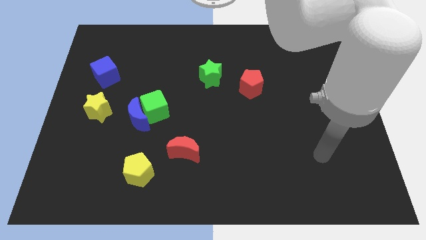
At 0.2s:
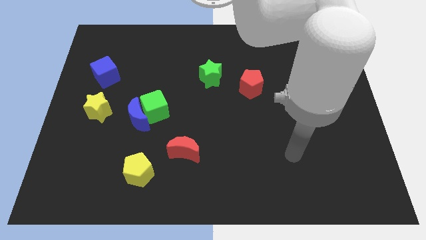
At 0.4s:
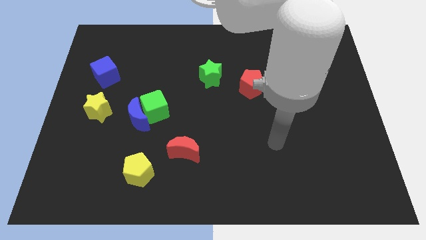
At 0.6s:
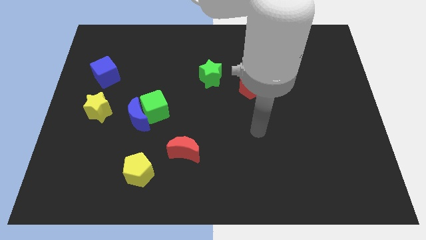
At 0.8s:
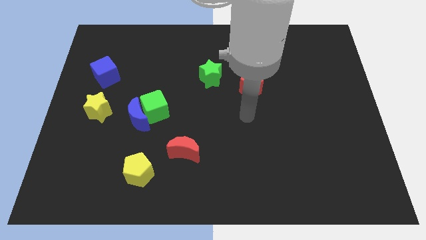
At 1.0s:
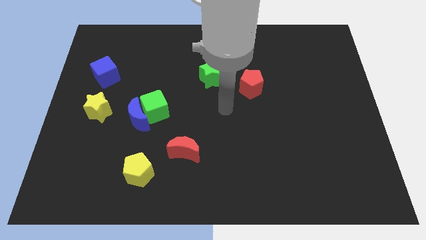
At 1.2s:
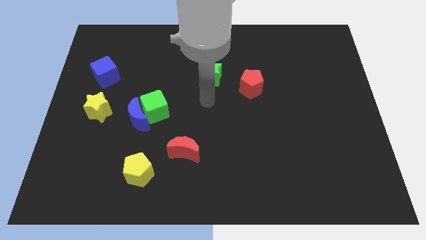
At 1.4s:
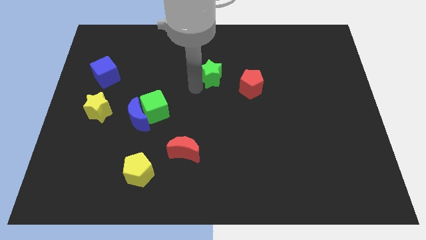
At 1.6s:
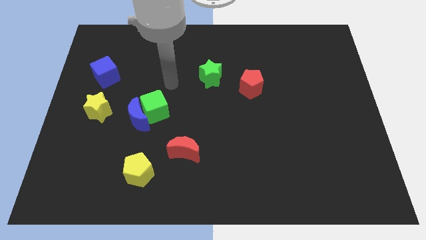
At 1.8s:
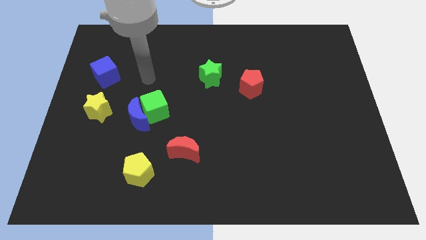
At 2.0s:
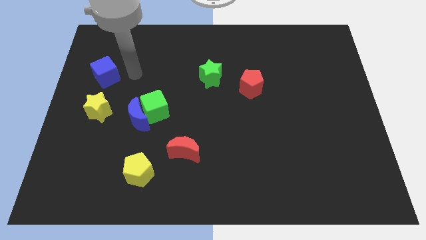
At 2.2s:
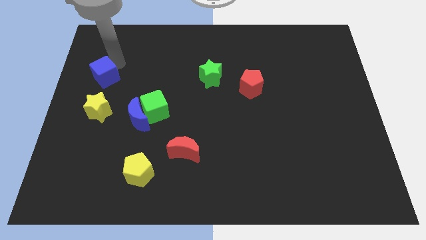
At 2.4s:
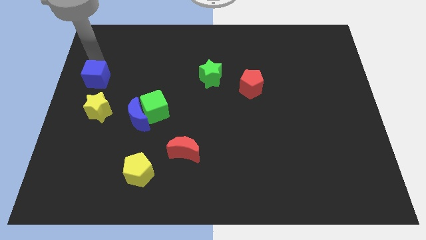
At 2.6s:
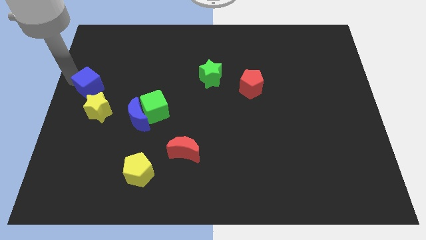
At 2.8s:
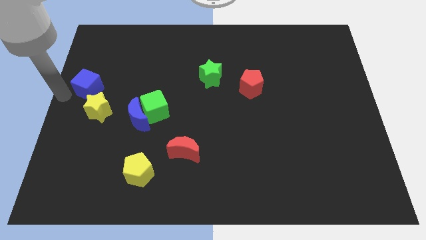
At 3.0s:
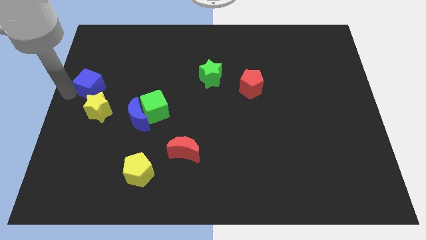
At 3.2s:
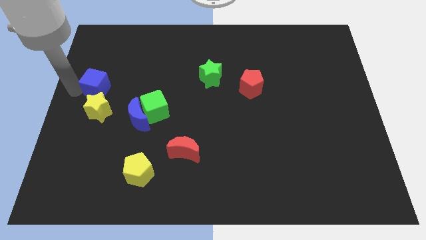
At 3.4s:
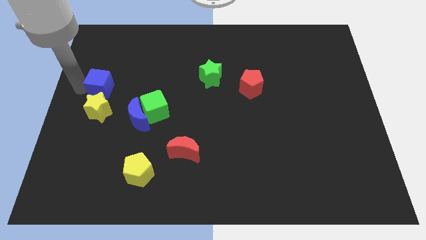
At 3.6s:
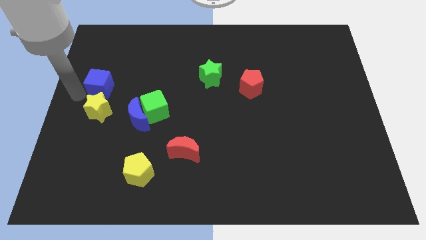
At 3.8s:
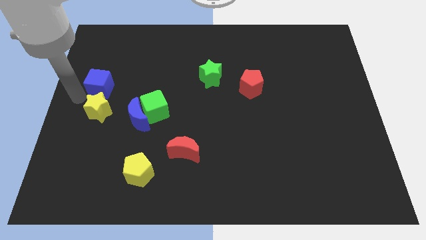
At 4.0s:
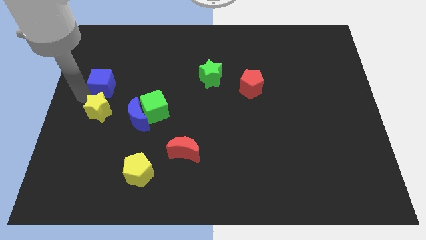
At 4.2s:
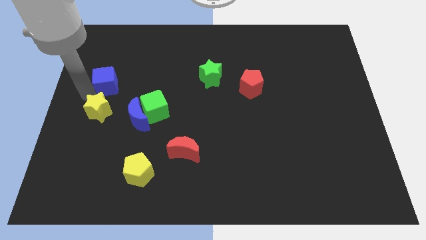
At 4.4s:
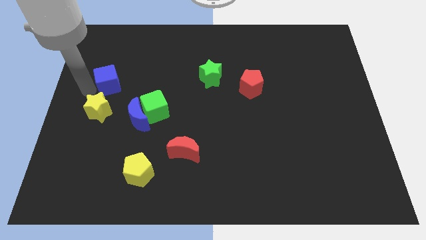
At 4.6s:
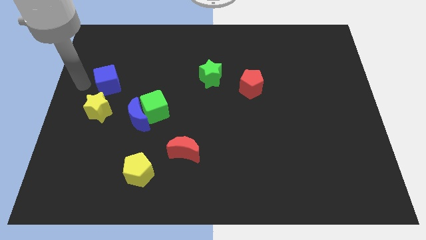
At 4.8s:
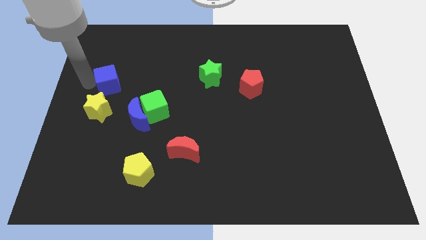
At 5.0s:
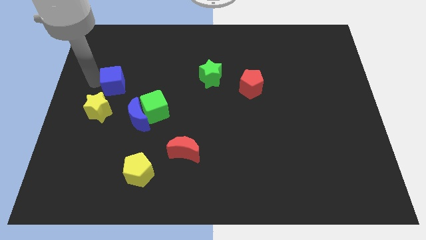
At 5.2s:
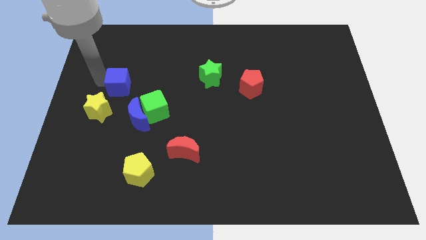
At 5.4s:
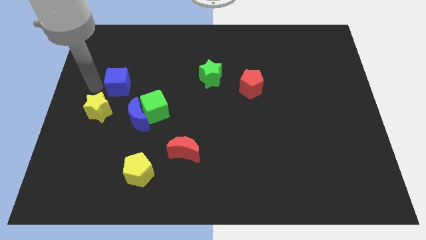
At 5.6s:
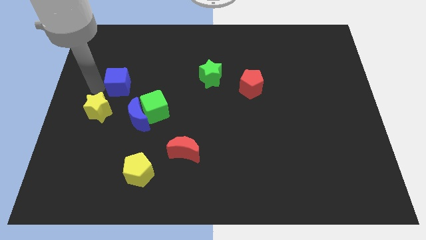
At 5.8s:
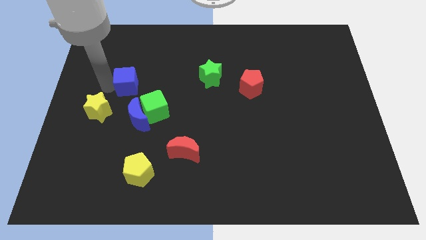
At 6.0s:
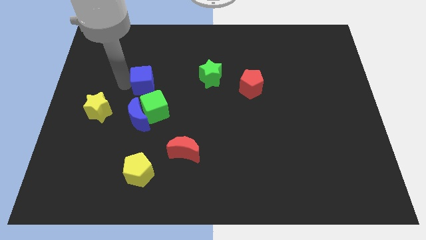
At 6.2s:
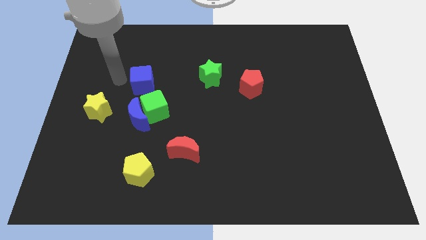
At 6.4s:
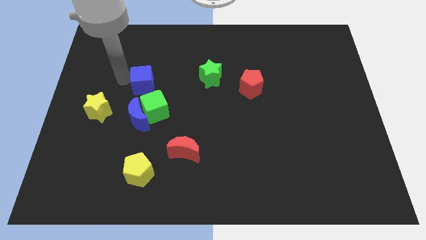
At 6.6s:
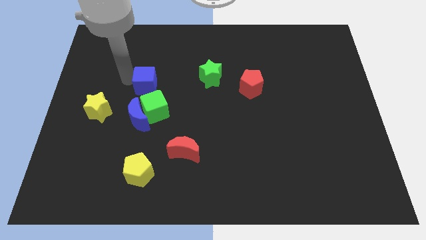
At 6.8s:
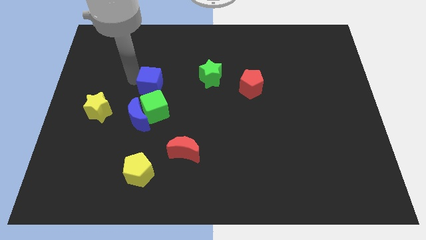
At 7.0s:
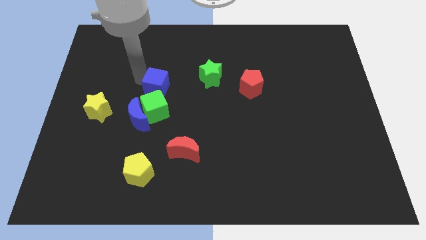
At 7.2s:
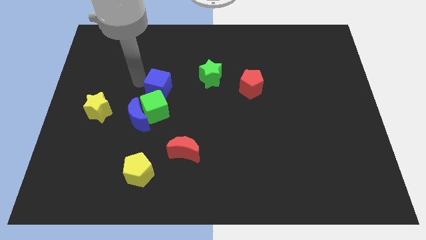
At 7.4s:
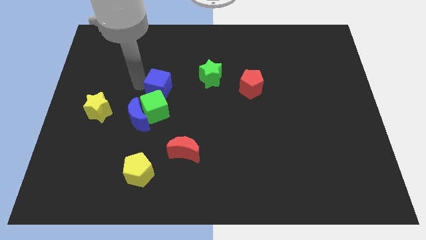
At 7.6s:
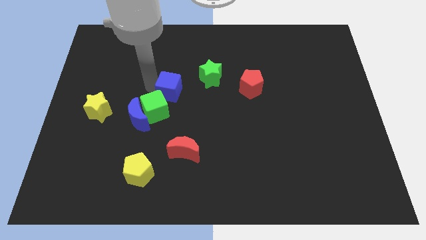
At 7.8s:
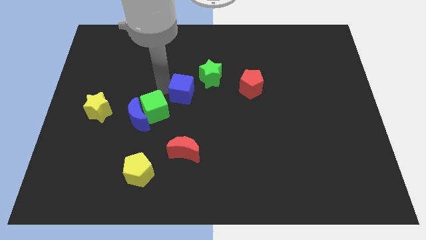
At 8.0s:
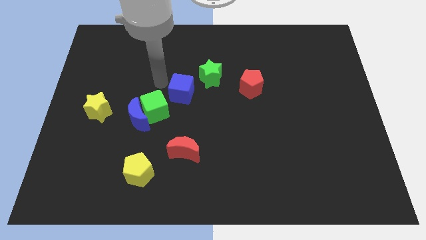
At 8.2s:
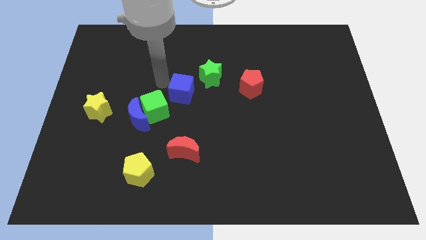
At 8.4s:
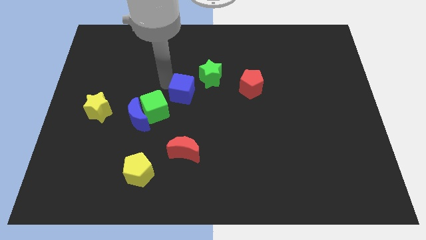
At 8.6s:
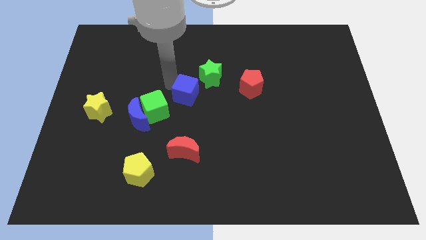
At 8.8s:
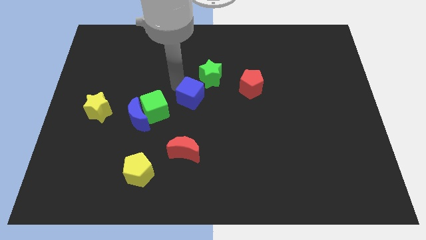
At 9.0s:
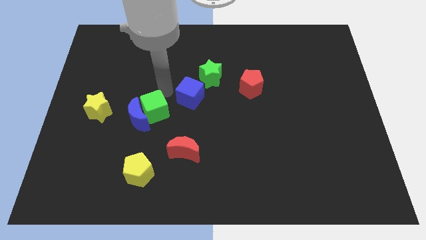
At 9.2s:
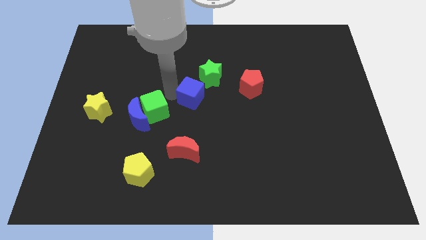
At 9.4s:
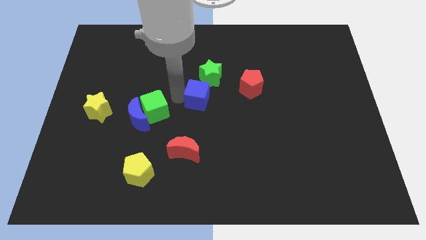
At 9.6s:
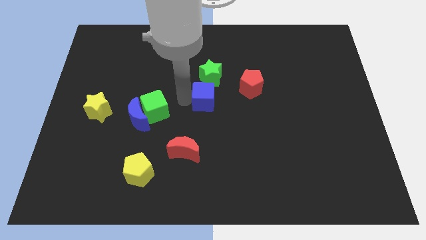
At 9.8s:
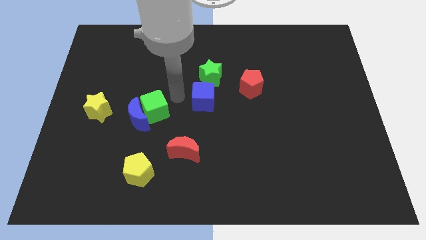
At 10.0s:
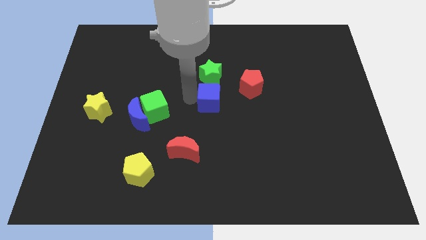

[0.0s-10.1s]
slide the blue cube to the bottom left side of the red pentagon

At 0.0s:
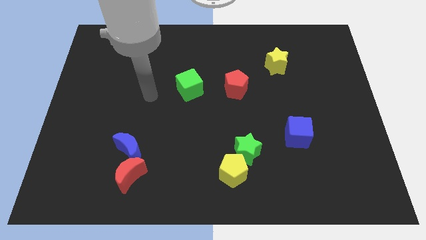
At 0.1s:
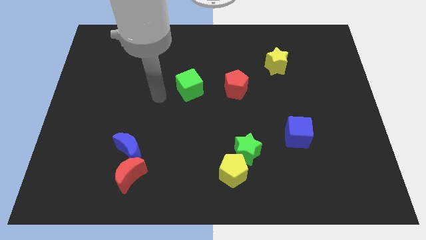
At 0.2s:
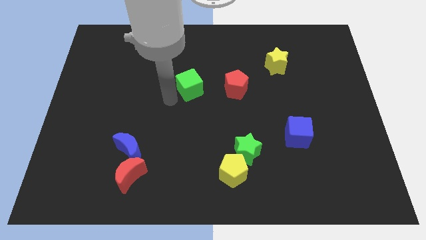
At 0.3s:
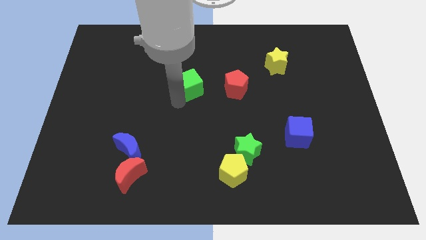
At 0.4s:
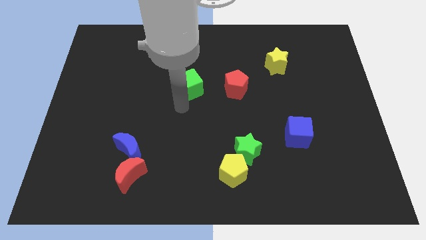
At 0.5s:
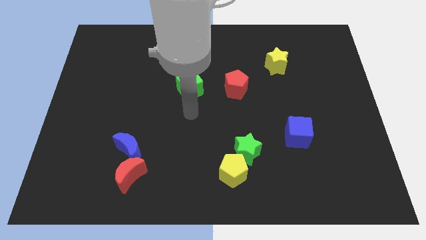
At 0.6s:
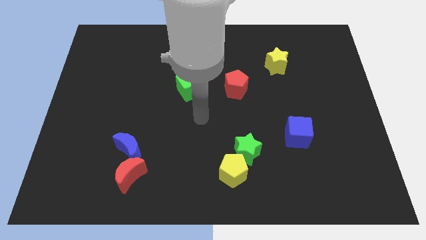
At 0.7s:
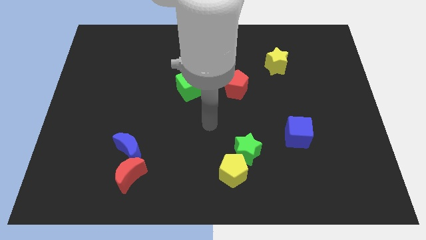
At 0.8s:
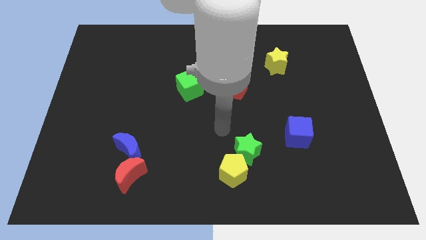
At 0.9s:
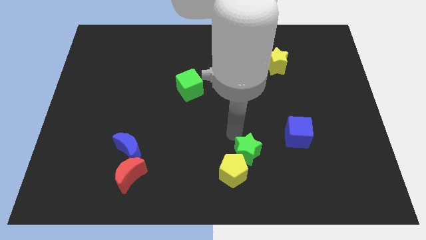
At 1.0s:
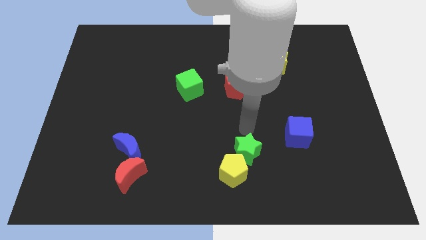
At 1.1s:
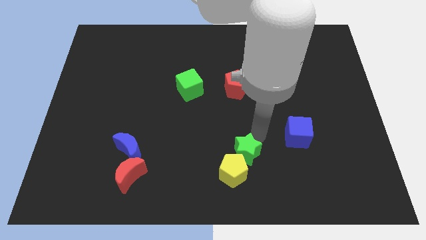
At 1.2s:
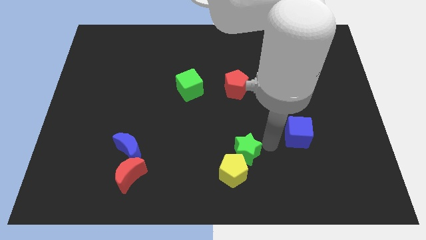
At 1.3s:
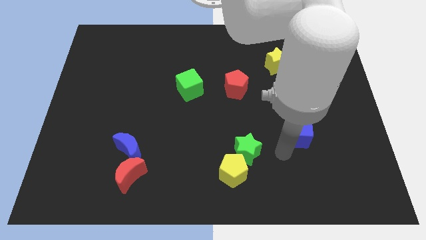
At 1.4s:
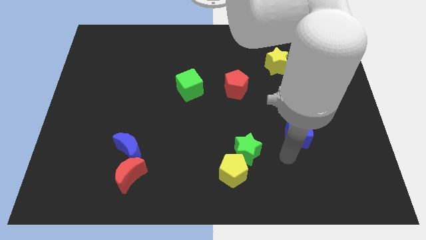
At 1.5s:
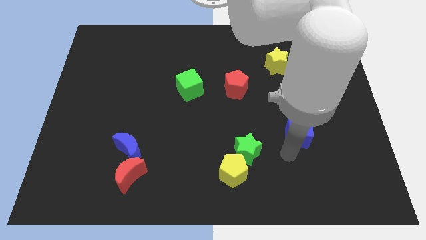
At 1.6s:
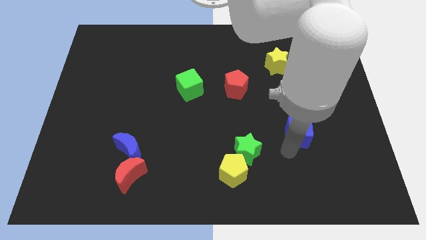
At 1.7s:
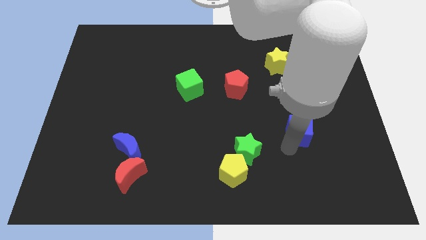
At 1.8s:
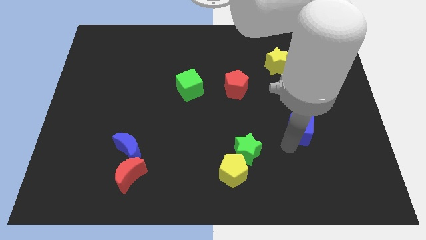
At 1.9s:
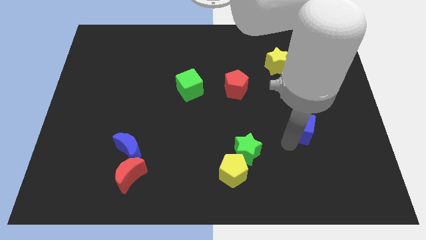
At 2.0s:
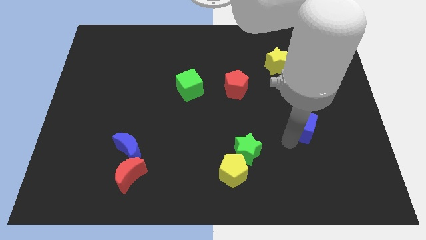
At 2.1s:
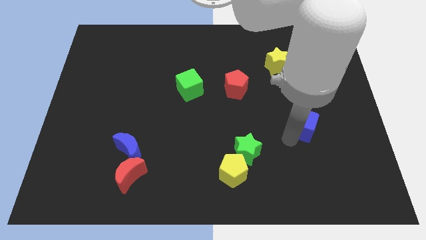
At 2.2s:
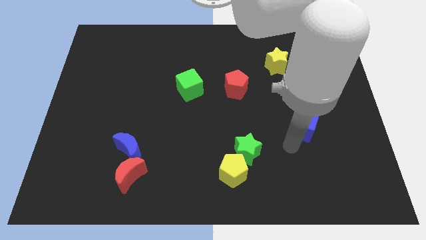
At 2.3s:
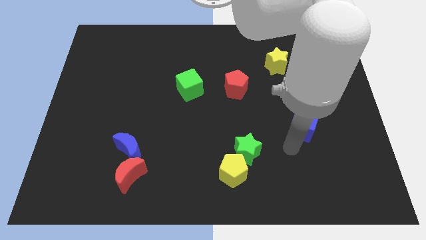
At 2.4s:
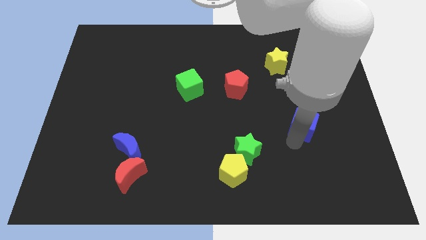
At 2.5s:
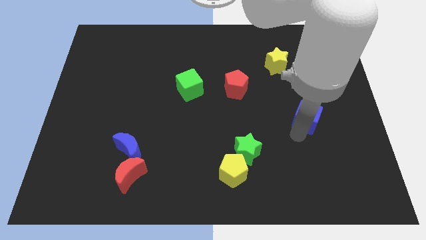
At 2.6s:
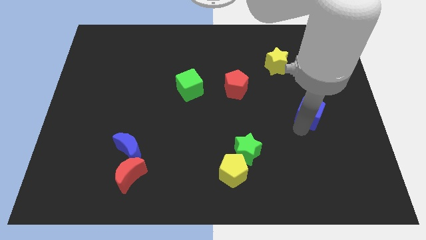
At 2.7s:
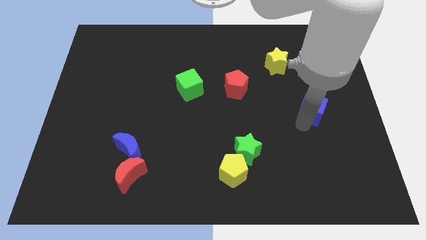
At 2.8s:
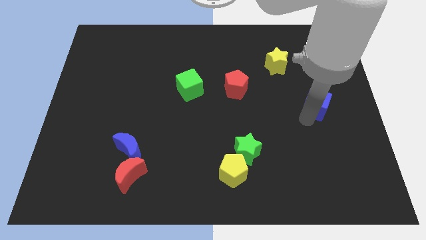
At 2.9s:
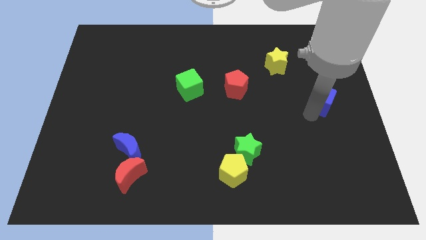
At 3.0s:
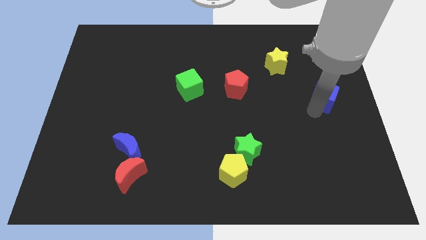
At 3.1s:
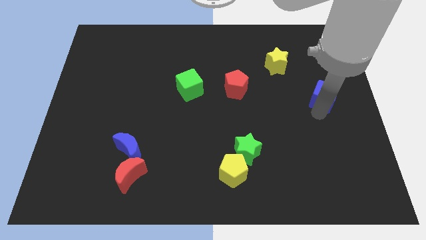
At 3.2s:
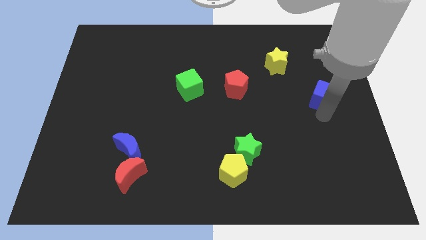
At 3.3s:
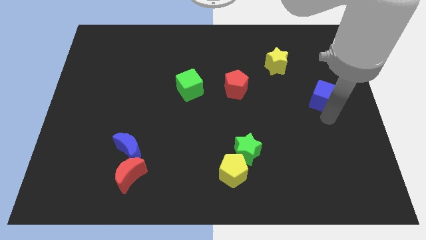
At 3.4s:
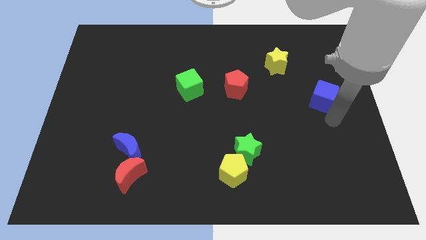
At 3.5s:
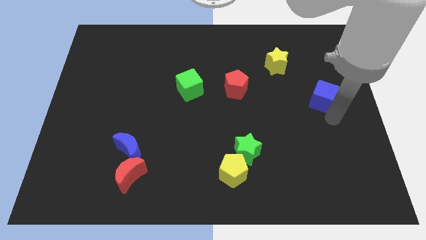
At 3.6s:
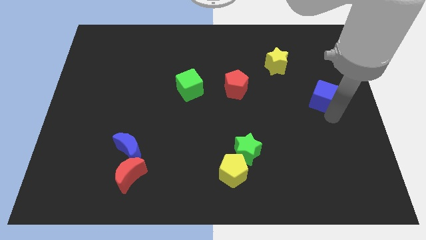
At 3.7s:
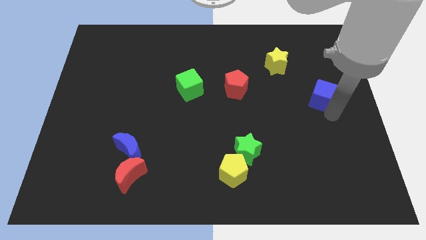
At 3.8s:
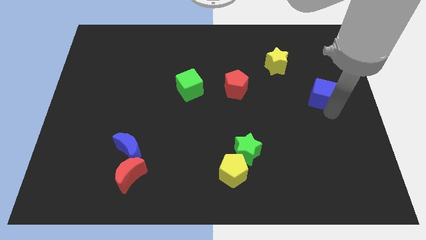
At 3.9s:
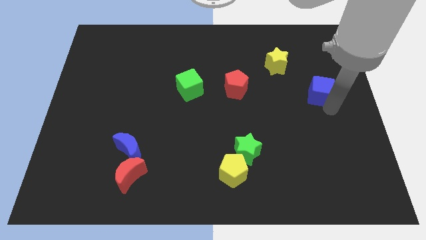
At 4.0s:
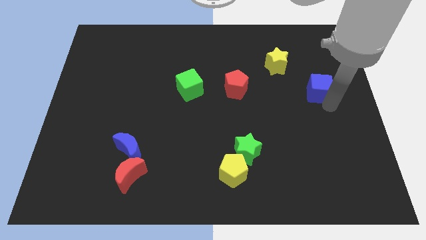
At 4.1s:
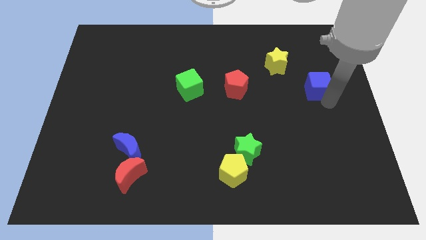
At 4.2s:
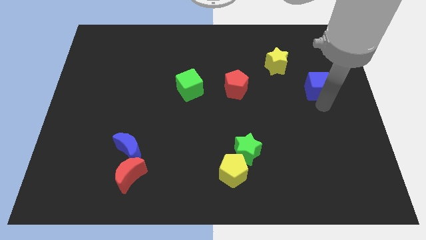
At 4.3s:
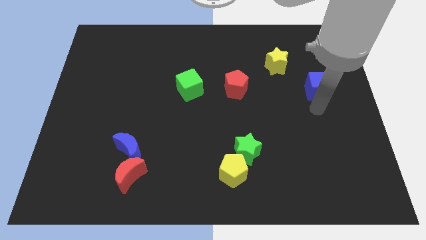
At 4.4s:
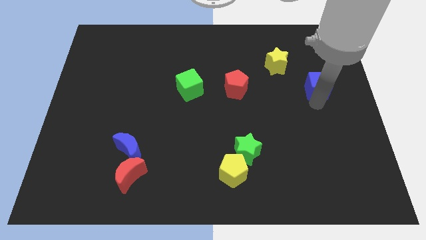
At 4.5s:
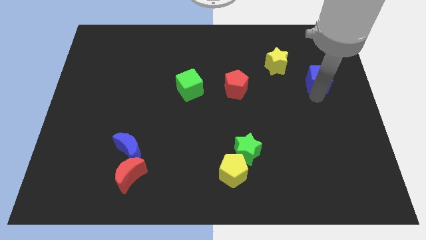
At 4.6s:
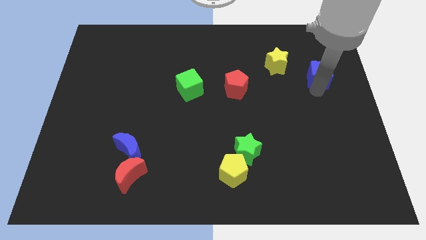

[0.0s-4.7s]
put the blue cube to the right side of the yellow star
